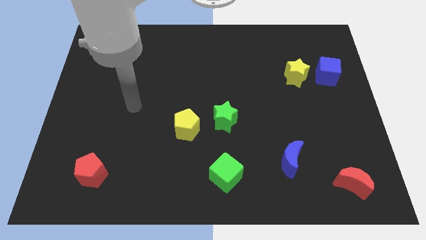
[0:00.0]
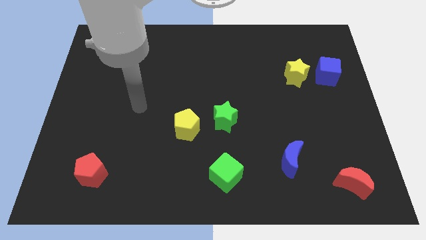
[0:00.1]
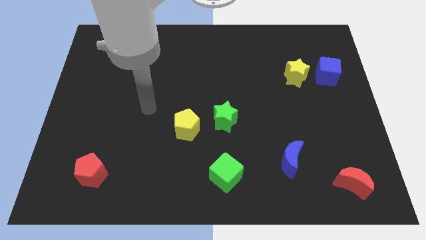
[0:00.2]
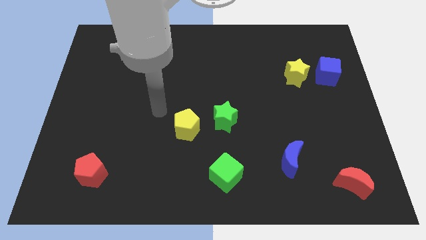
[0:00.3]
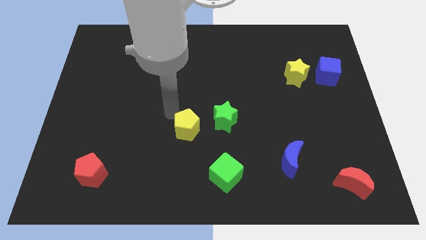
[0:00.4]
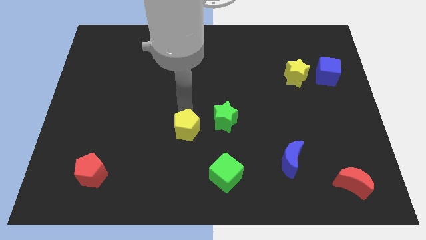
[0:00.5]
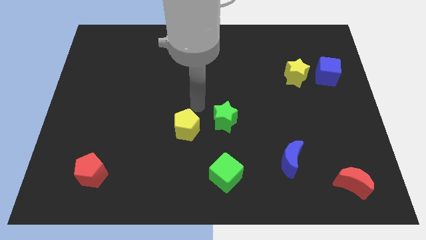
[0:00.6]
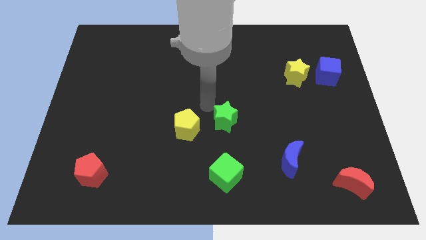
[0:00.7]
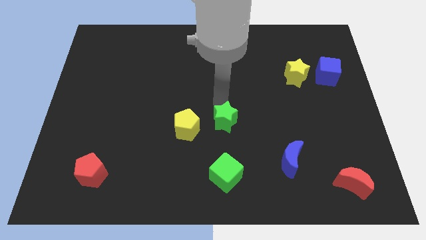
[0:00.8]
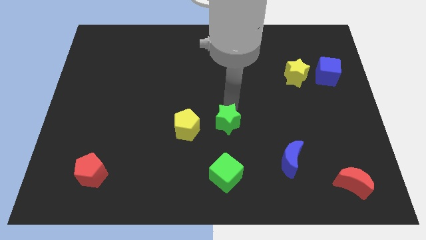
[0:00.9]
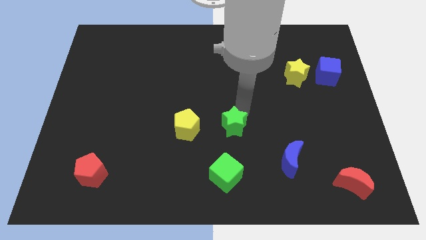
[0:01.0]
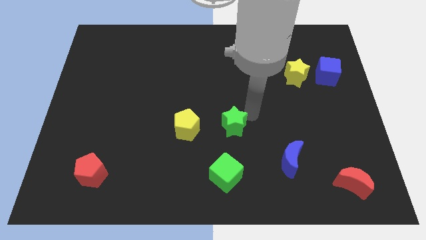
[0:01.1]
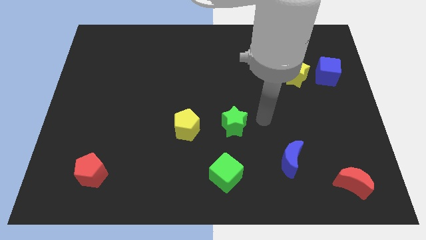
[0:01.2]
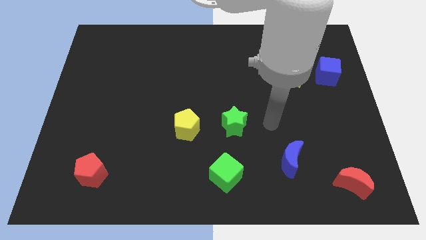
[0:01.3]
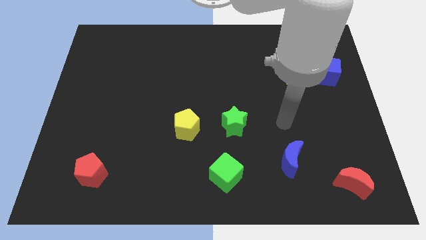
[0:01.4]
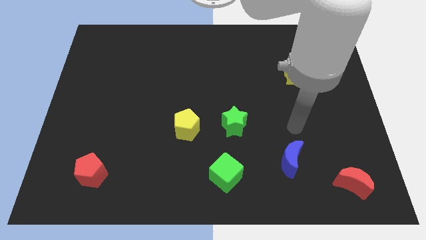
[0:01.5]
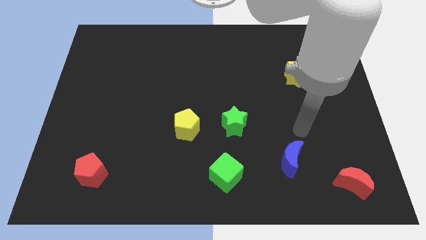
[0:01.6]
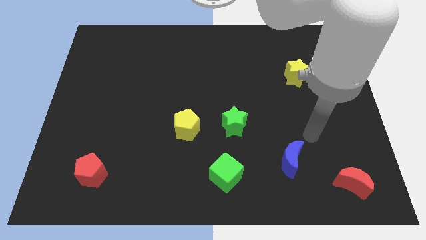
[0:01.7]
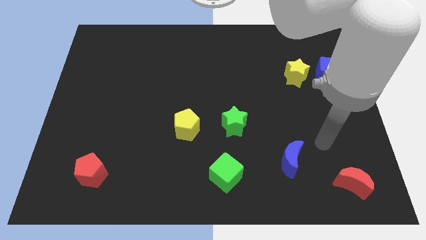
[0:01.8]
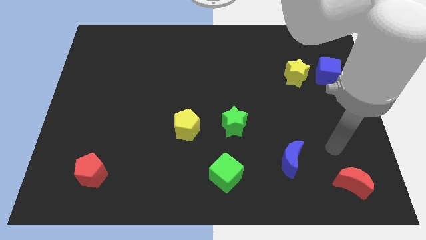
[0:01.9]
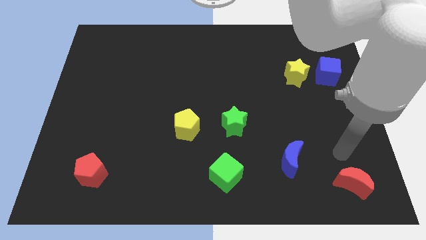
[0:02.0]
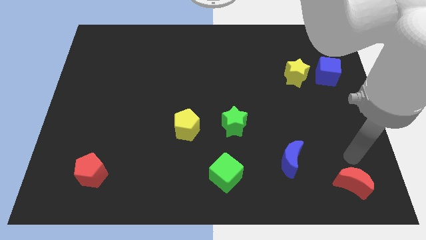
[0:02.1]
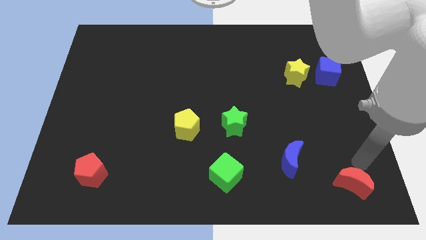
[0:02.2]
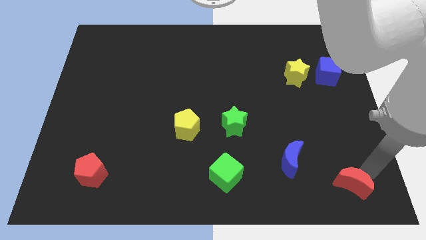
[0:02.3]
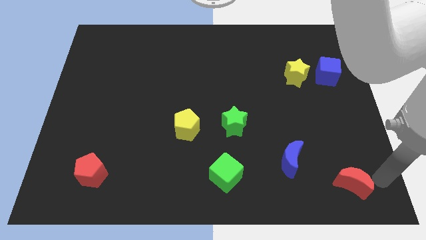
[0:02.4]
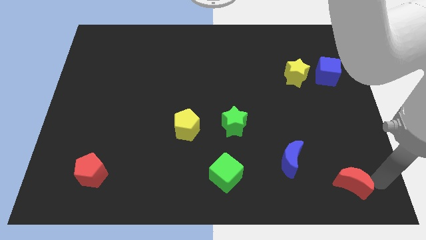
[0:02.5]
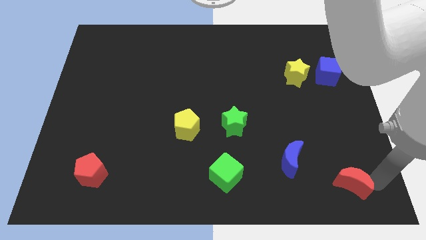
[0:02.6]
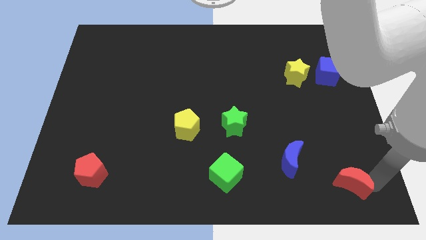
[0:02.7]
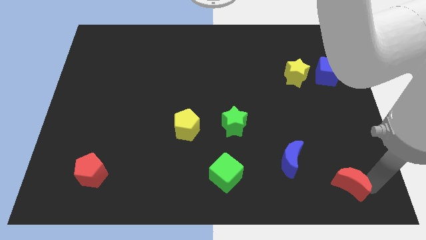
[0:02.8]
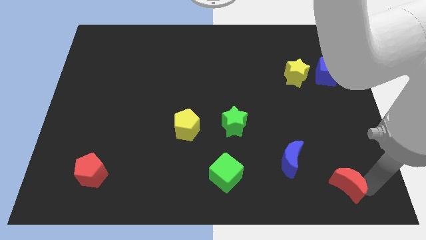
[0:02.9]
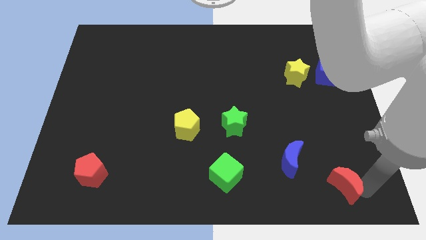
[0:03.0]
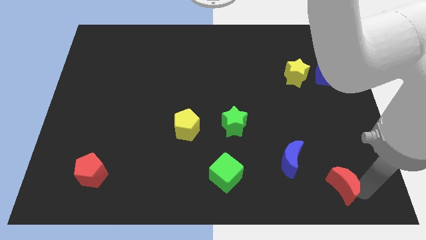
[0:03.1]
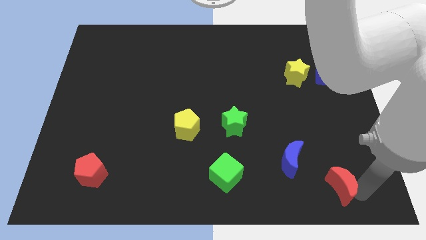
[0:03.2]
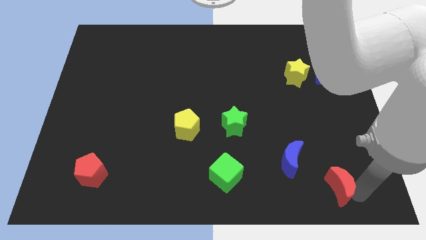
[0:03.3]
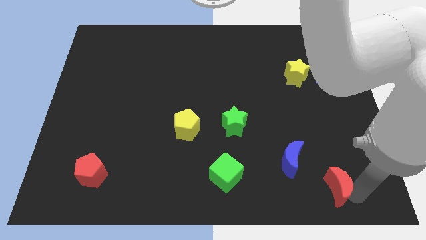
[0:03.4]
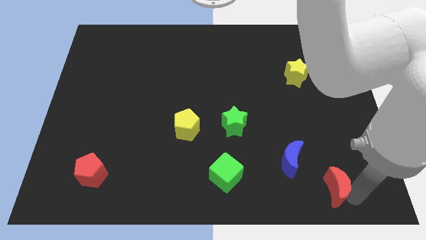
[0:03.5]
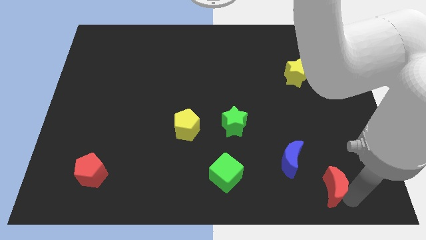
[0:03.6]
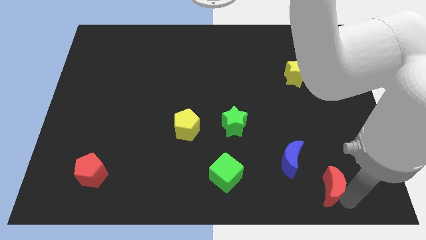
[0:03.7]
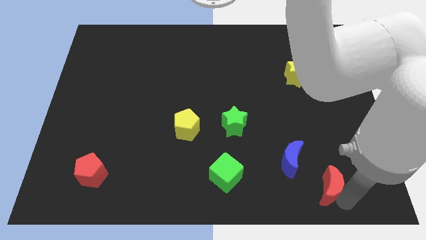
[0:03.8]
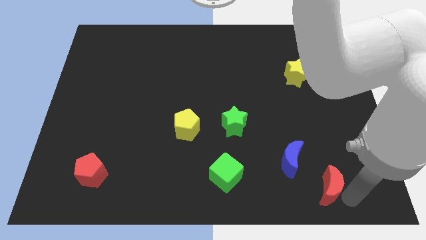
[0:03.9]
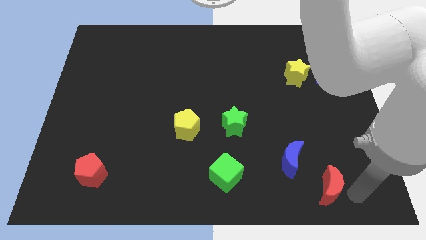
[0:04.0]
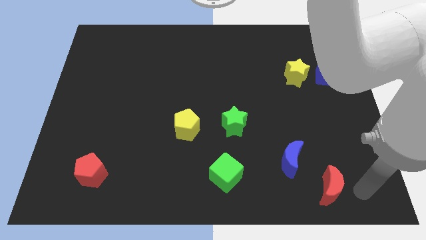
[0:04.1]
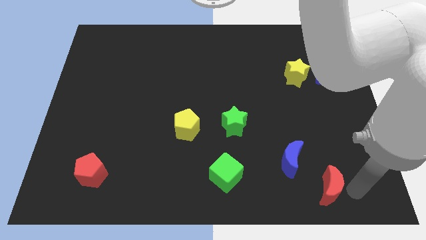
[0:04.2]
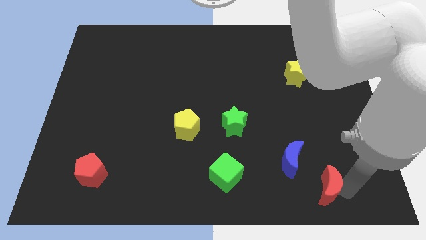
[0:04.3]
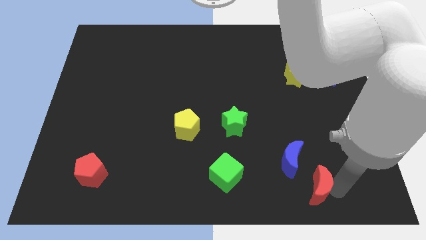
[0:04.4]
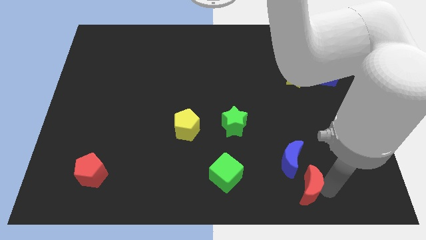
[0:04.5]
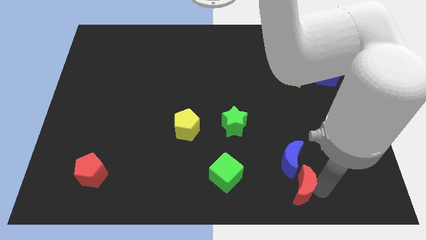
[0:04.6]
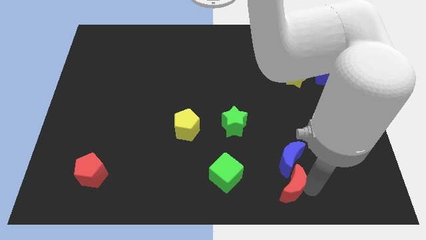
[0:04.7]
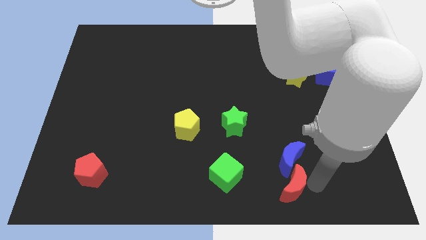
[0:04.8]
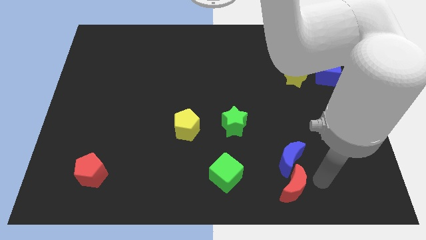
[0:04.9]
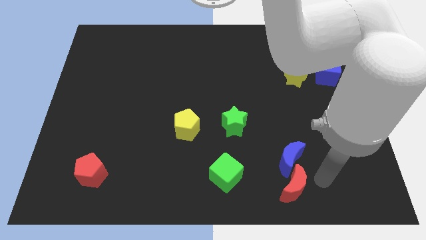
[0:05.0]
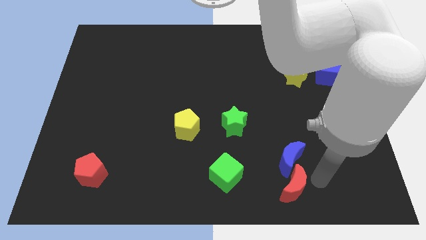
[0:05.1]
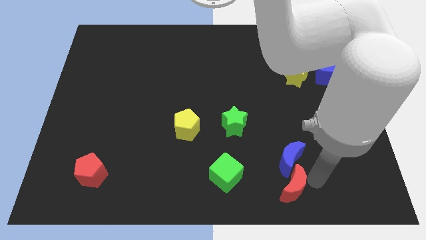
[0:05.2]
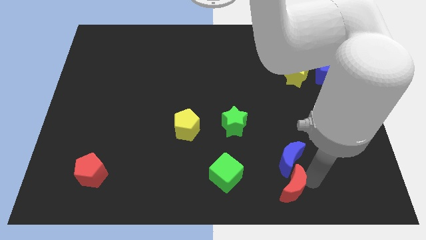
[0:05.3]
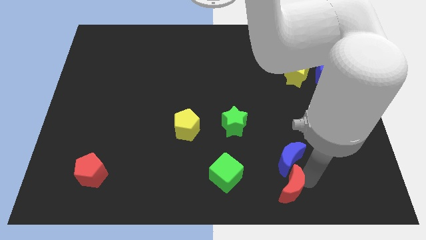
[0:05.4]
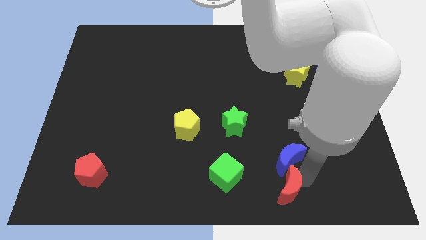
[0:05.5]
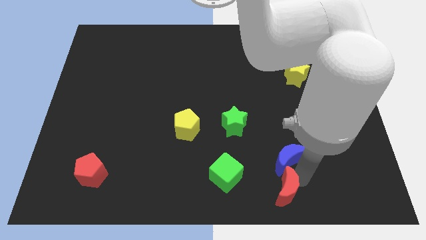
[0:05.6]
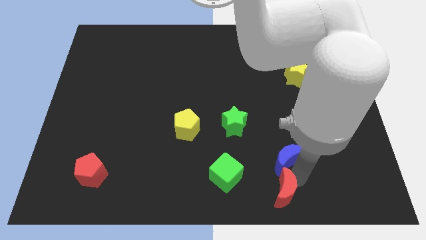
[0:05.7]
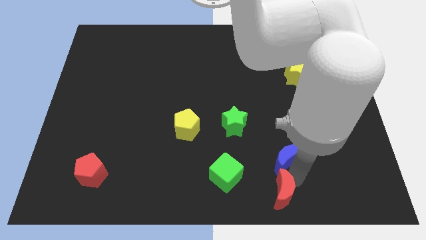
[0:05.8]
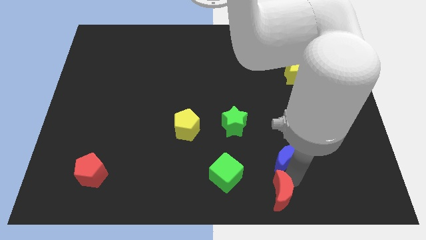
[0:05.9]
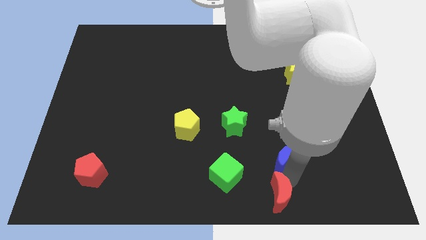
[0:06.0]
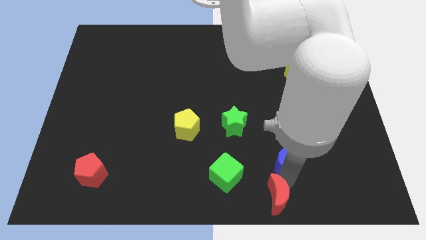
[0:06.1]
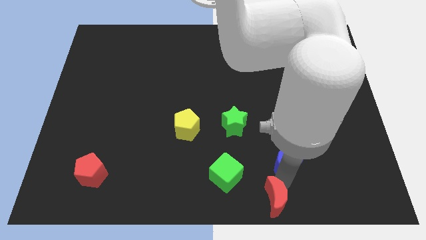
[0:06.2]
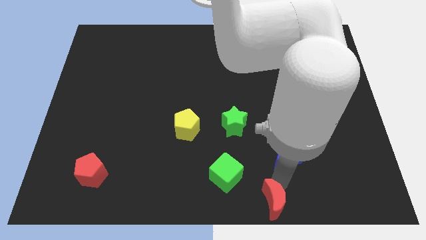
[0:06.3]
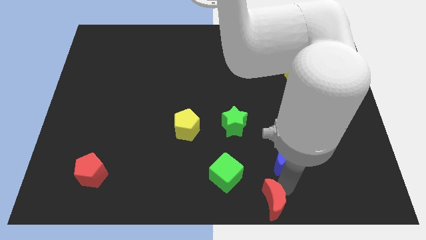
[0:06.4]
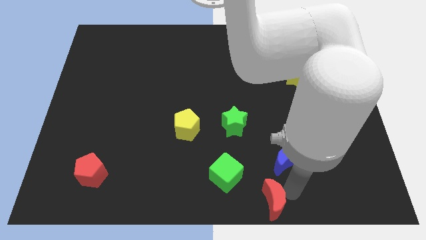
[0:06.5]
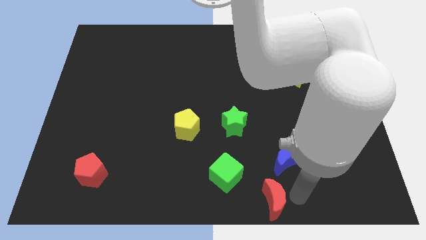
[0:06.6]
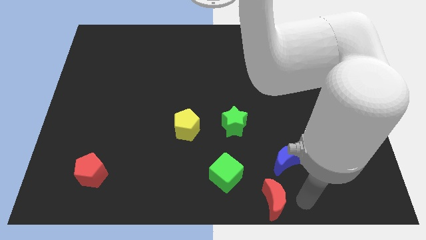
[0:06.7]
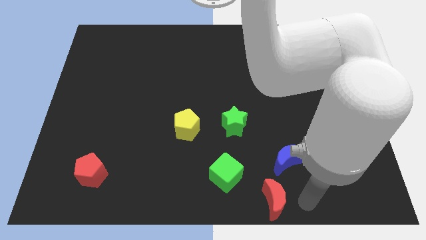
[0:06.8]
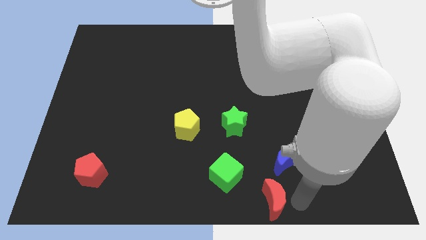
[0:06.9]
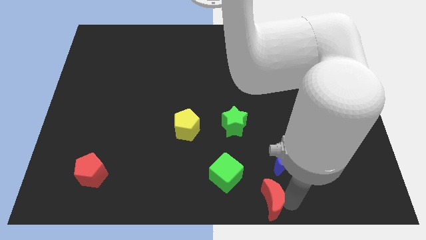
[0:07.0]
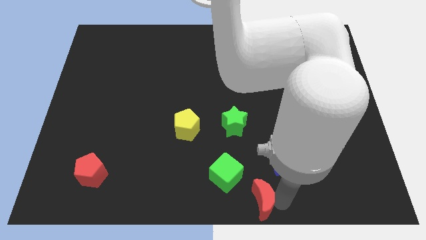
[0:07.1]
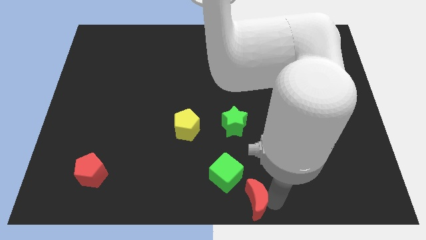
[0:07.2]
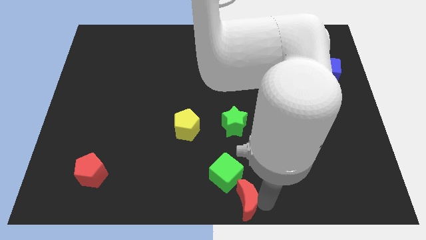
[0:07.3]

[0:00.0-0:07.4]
slide the red moon left

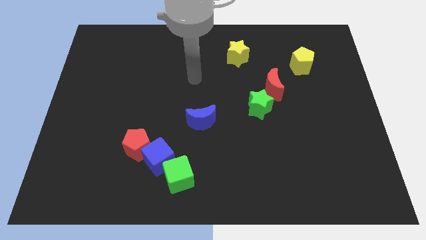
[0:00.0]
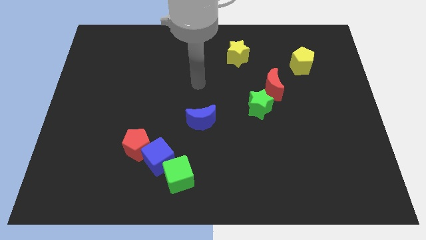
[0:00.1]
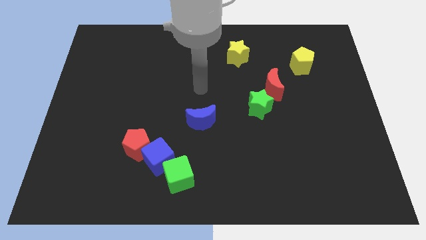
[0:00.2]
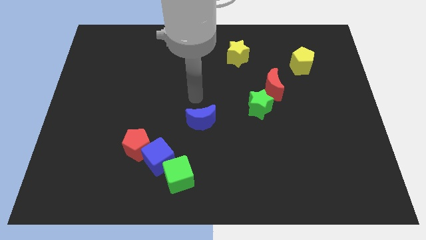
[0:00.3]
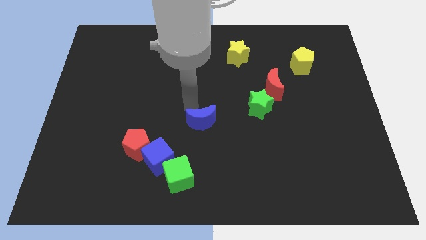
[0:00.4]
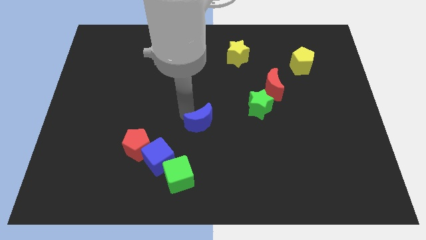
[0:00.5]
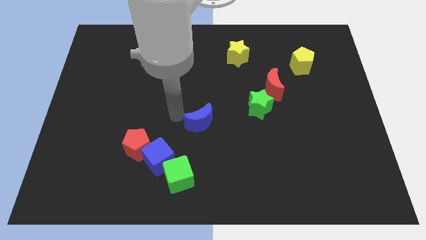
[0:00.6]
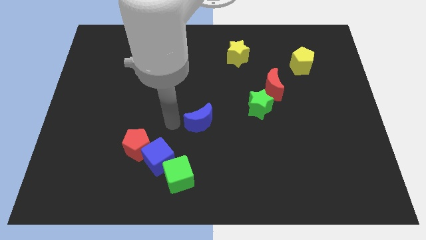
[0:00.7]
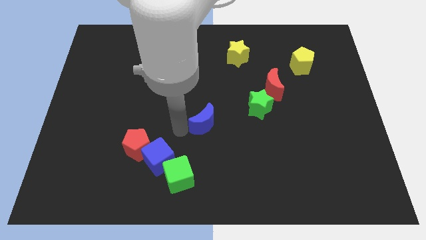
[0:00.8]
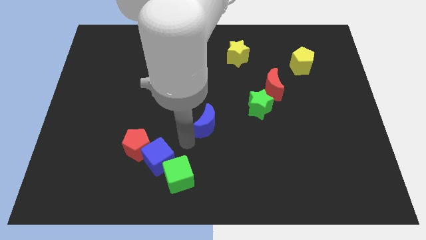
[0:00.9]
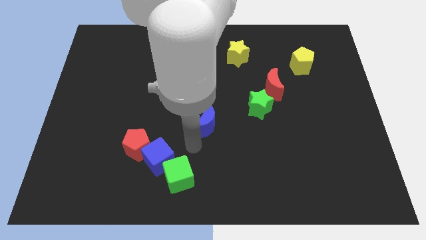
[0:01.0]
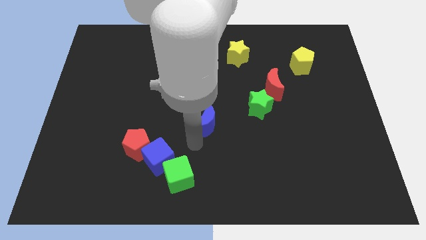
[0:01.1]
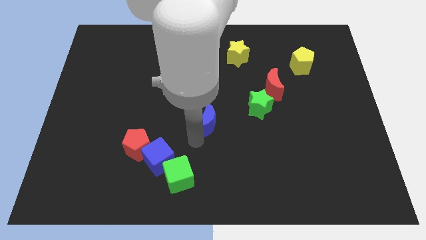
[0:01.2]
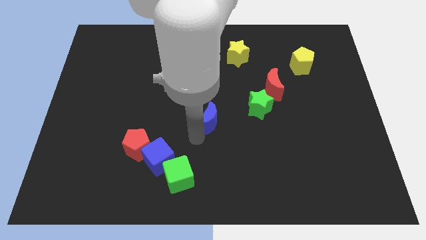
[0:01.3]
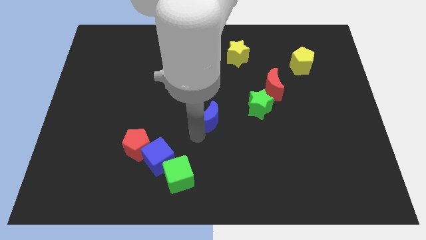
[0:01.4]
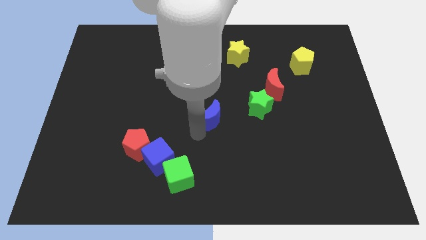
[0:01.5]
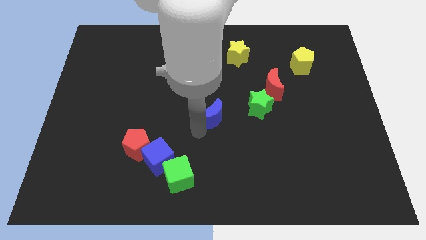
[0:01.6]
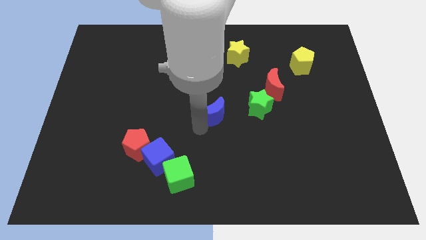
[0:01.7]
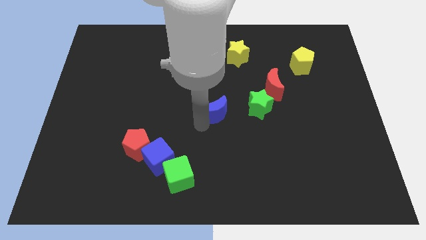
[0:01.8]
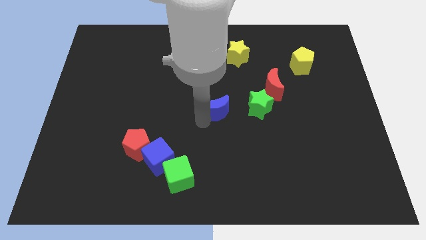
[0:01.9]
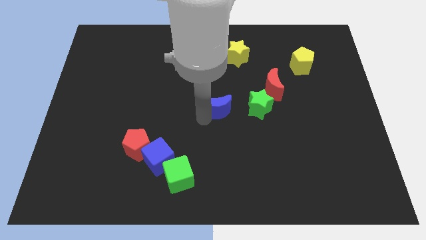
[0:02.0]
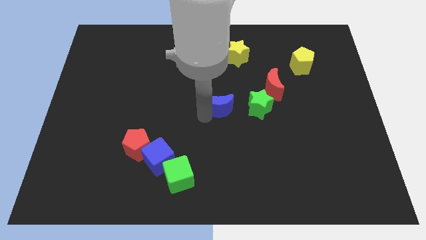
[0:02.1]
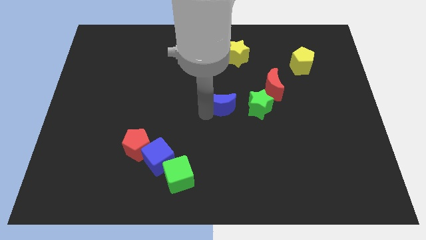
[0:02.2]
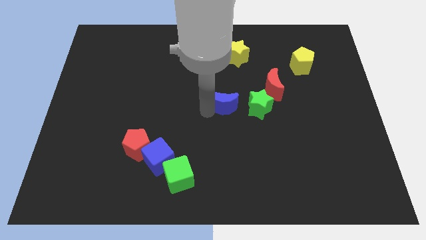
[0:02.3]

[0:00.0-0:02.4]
push the blue moon a little bit upwards and right diagonally
